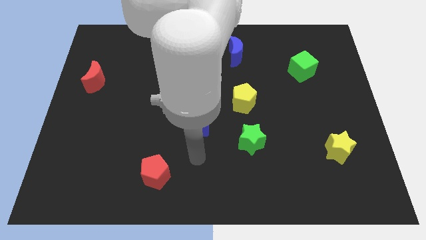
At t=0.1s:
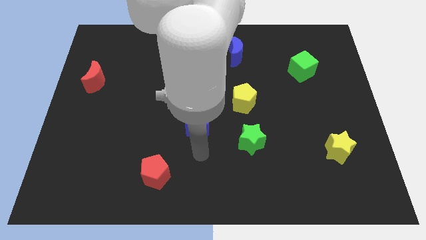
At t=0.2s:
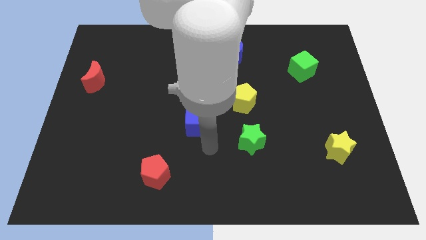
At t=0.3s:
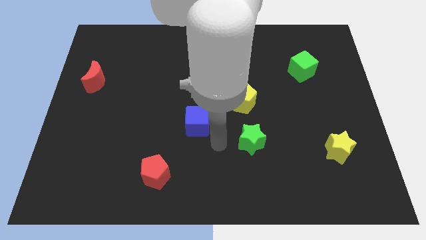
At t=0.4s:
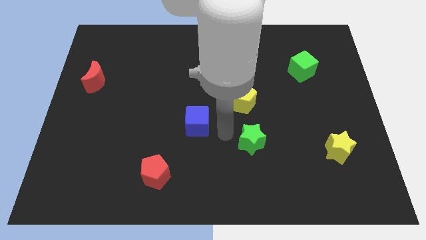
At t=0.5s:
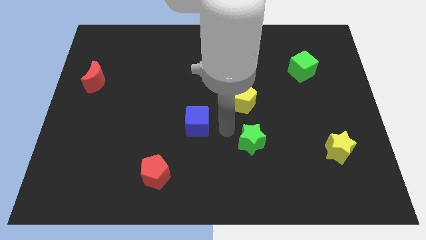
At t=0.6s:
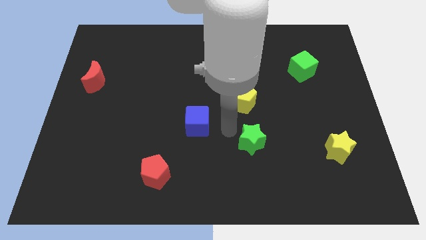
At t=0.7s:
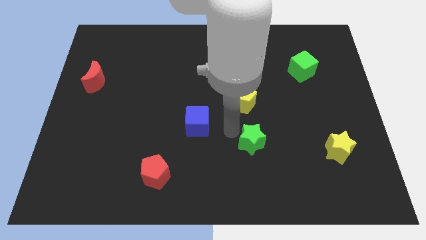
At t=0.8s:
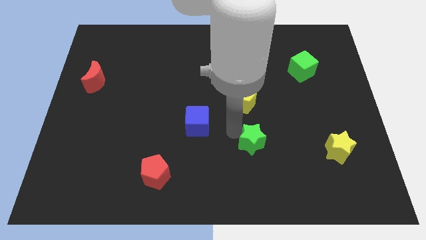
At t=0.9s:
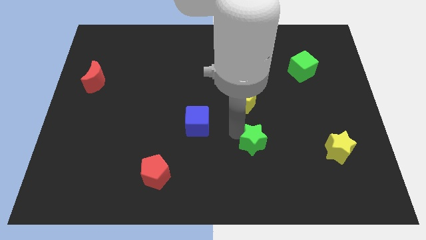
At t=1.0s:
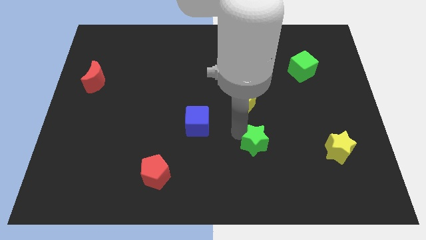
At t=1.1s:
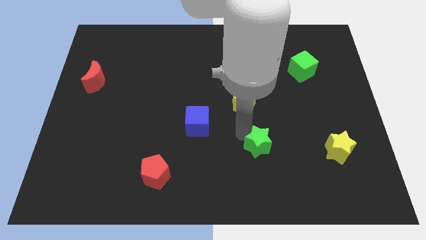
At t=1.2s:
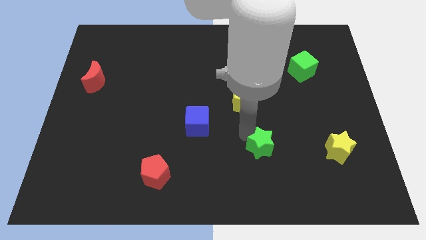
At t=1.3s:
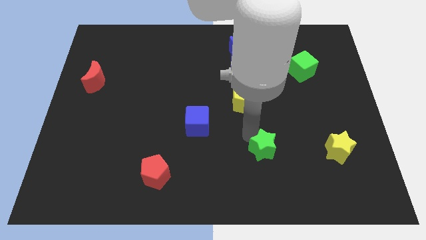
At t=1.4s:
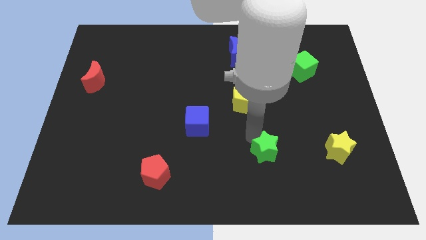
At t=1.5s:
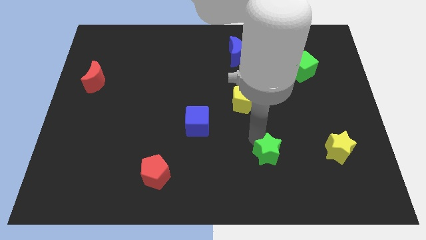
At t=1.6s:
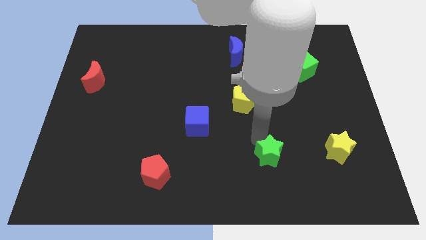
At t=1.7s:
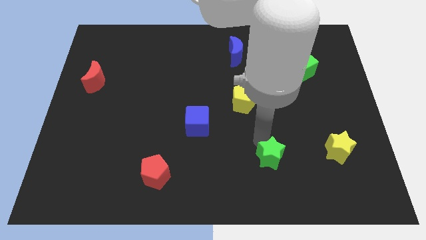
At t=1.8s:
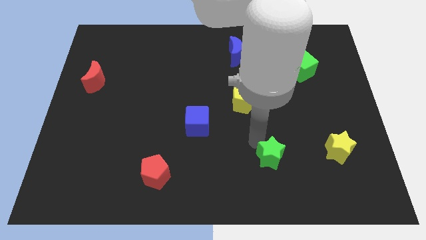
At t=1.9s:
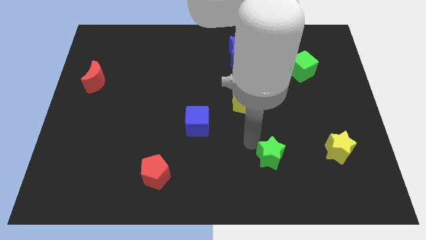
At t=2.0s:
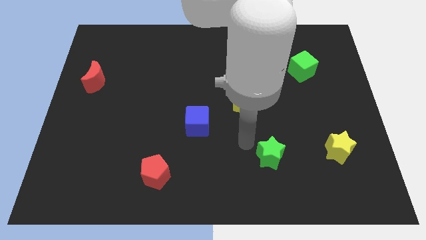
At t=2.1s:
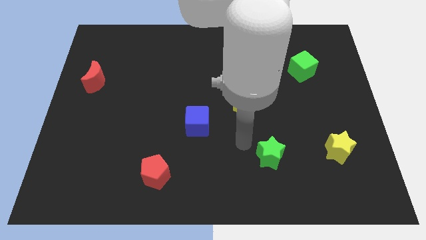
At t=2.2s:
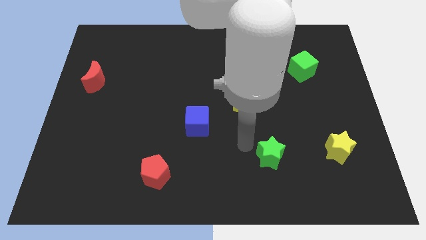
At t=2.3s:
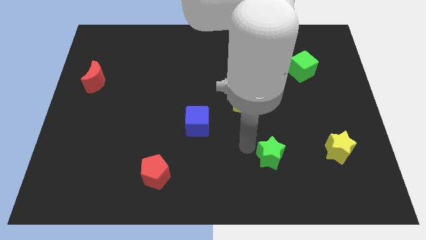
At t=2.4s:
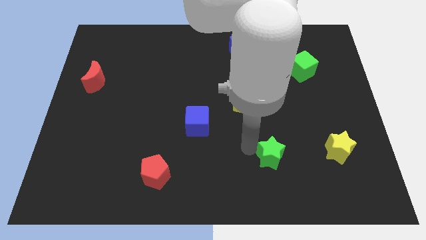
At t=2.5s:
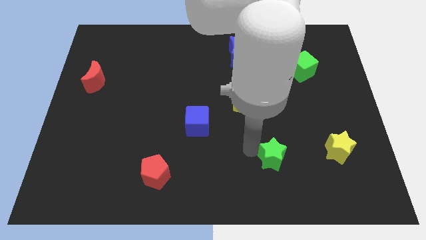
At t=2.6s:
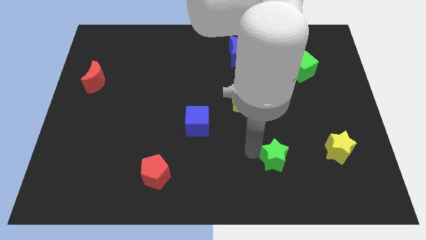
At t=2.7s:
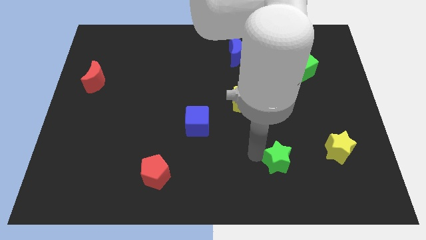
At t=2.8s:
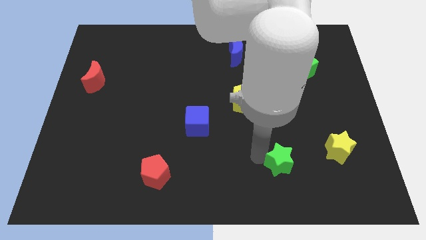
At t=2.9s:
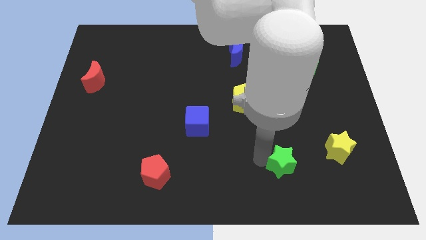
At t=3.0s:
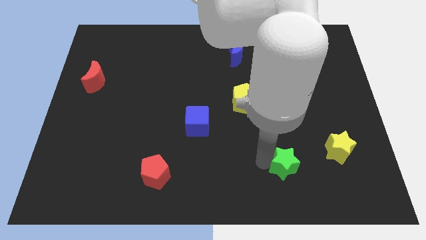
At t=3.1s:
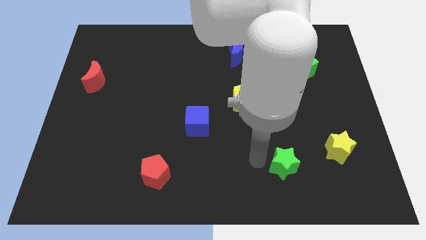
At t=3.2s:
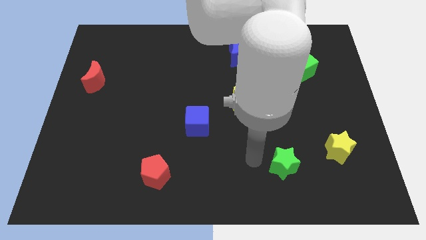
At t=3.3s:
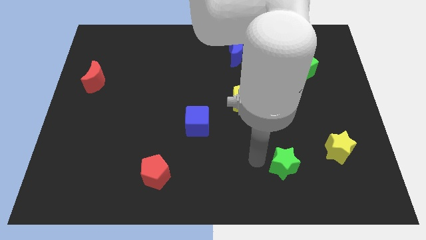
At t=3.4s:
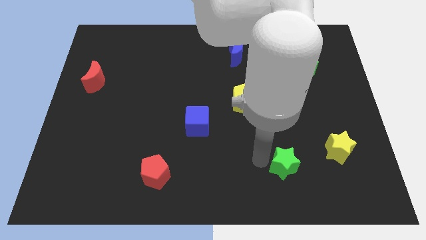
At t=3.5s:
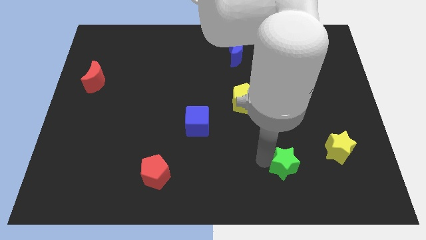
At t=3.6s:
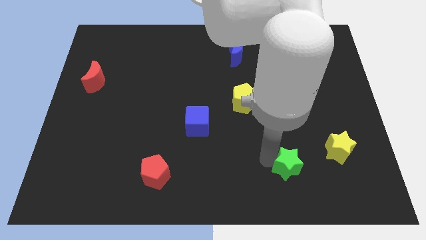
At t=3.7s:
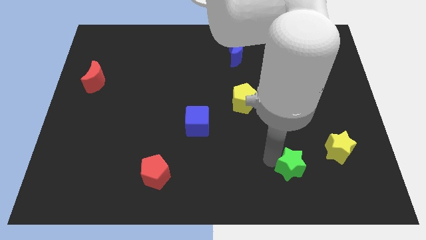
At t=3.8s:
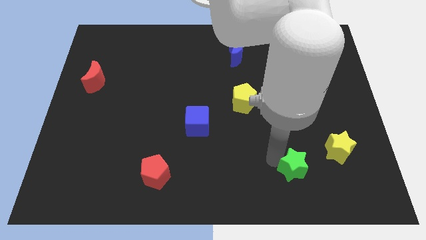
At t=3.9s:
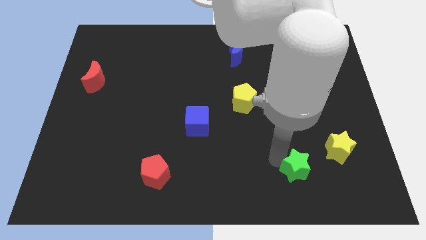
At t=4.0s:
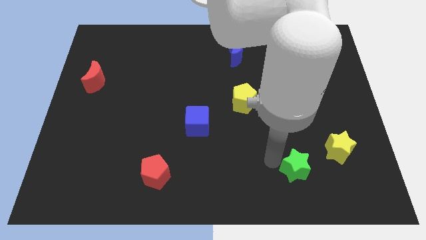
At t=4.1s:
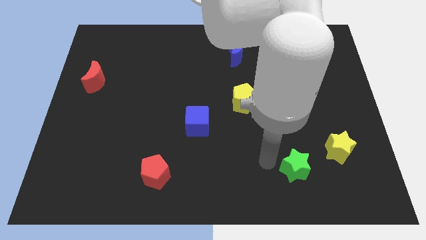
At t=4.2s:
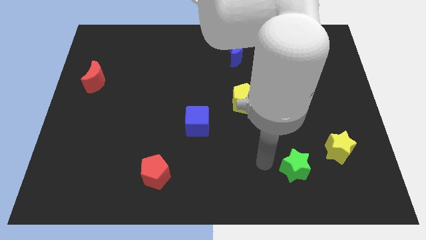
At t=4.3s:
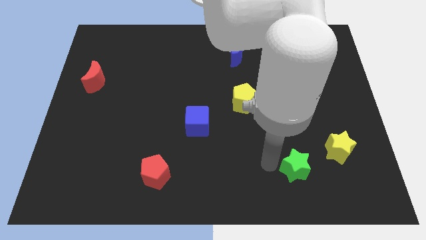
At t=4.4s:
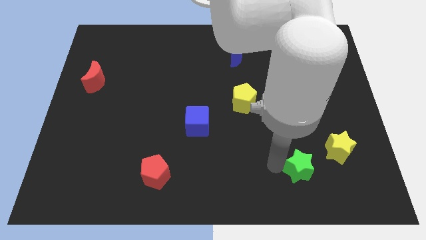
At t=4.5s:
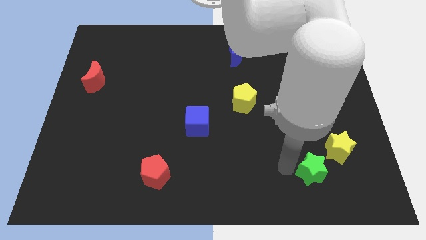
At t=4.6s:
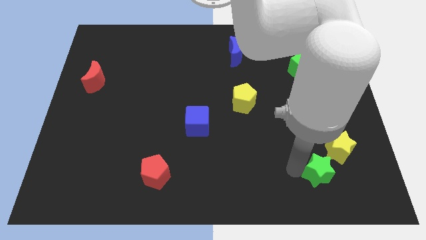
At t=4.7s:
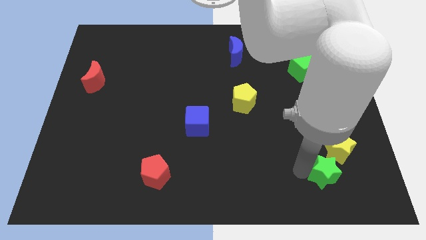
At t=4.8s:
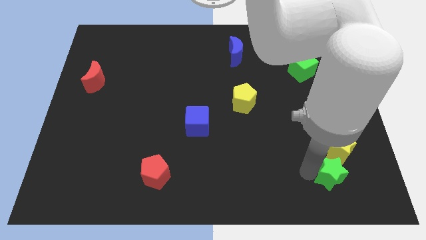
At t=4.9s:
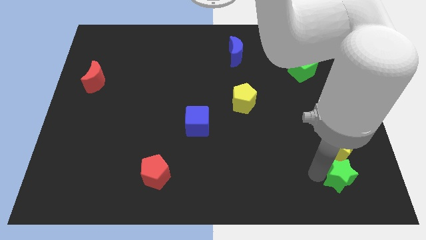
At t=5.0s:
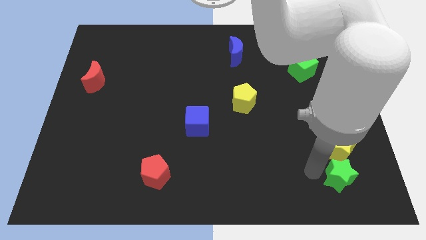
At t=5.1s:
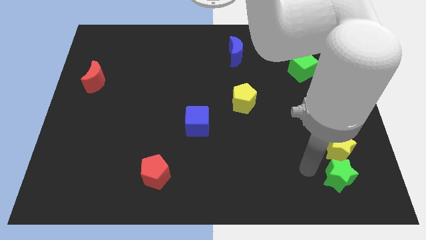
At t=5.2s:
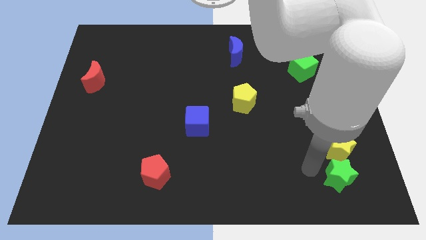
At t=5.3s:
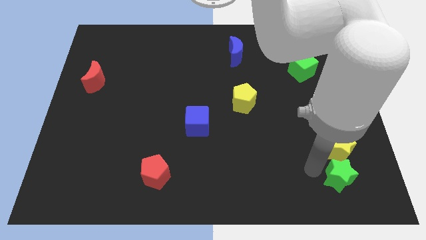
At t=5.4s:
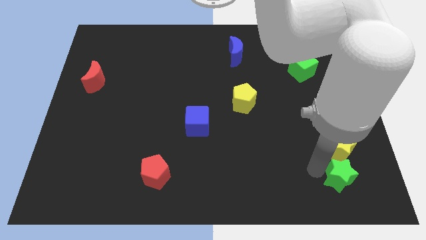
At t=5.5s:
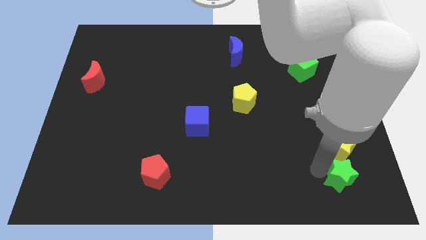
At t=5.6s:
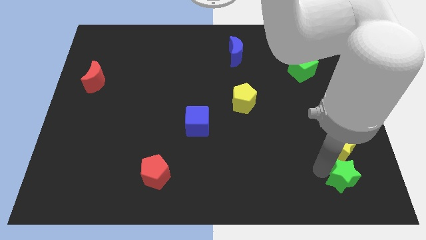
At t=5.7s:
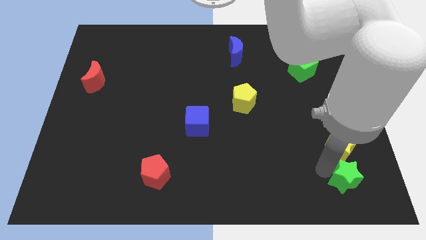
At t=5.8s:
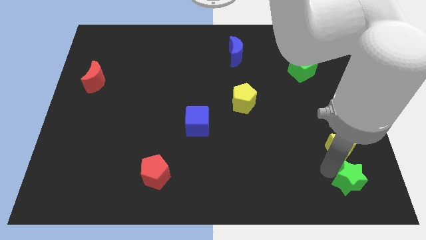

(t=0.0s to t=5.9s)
push the green star to the bottom right corner

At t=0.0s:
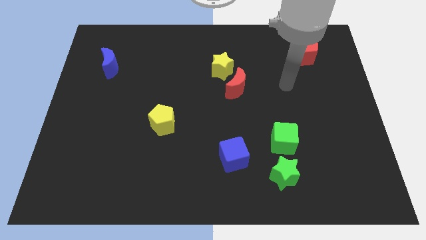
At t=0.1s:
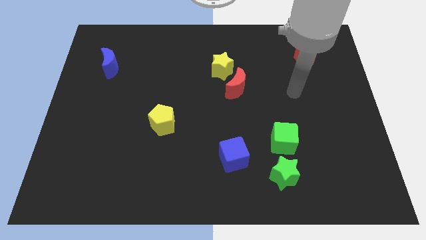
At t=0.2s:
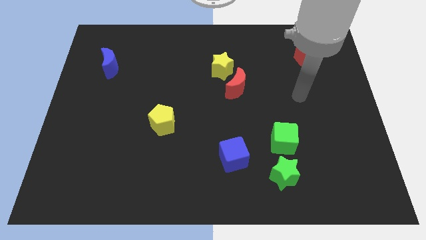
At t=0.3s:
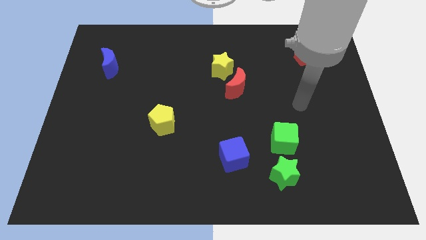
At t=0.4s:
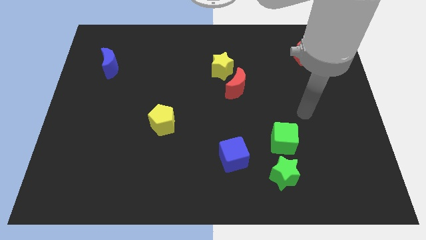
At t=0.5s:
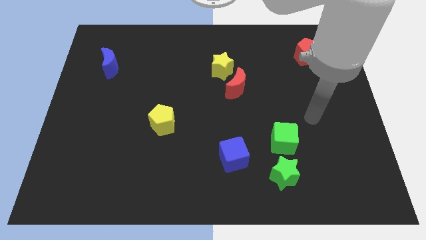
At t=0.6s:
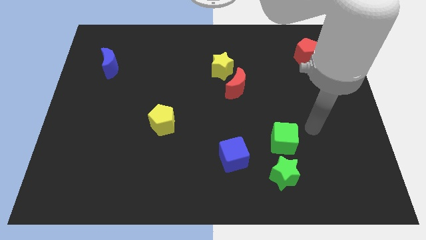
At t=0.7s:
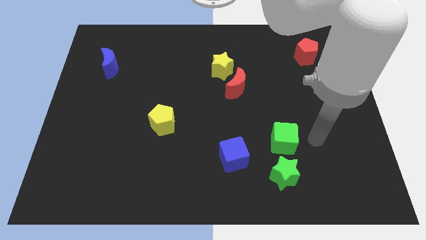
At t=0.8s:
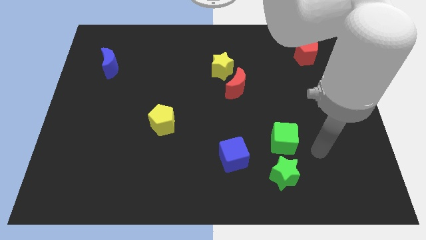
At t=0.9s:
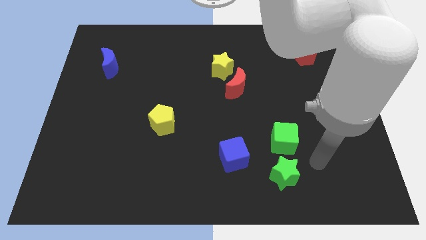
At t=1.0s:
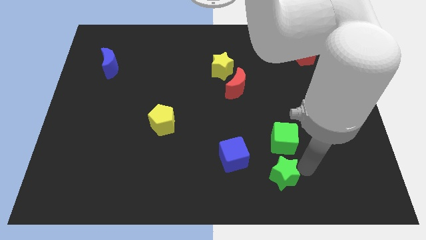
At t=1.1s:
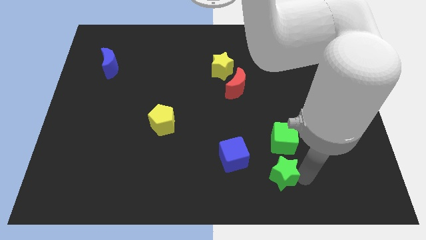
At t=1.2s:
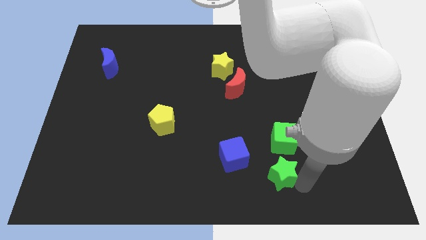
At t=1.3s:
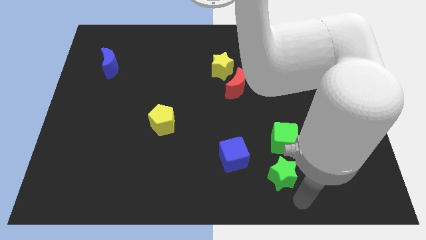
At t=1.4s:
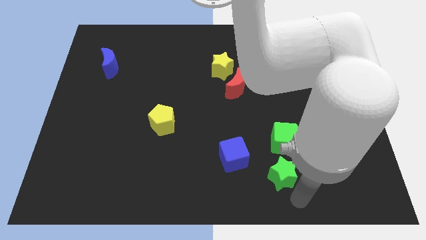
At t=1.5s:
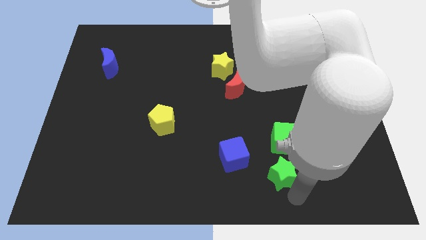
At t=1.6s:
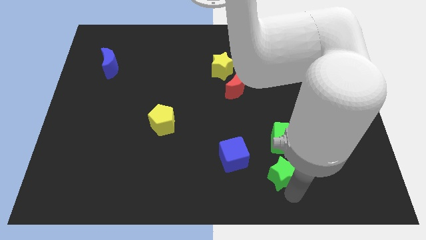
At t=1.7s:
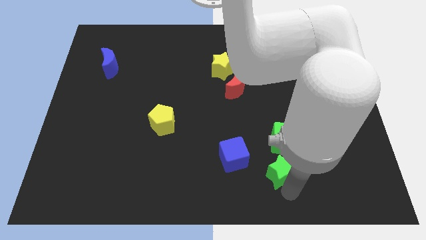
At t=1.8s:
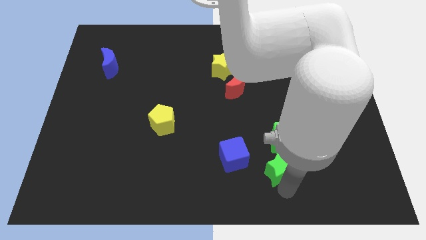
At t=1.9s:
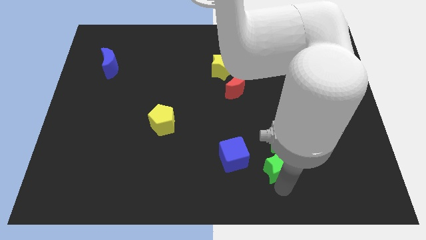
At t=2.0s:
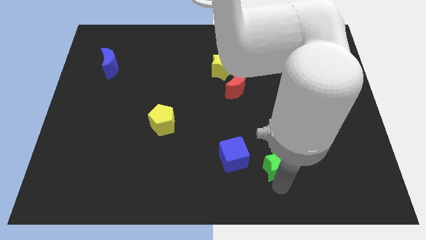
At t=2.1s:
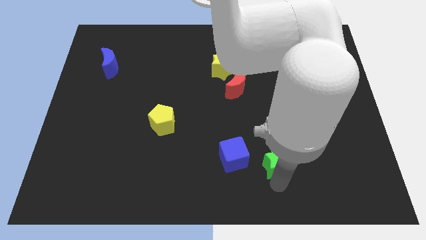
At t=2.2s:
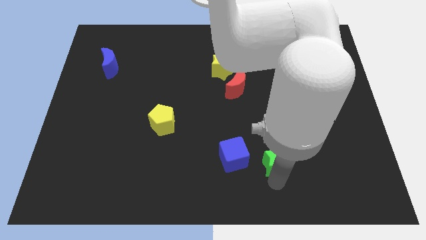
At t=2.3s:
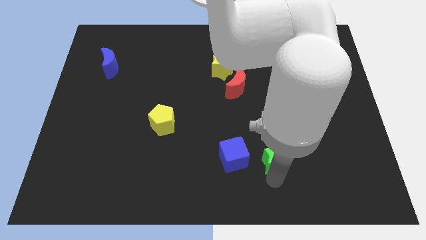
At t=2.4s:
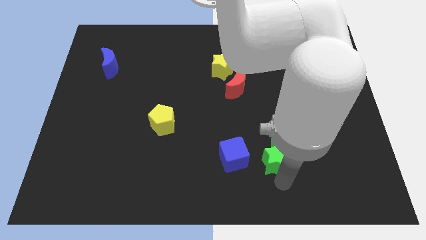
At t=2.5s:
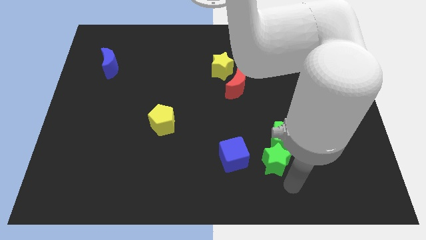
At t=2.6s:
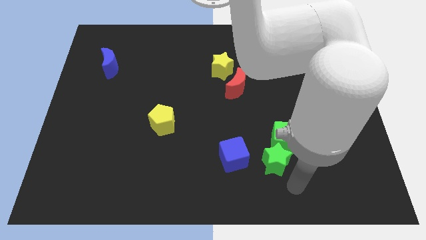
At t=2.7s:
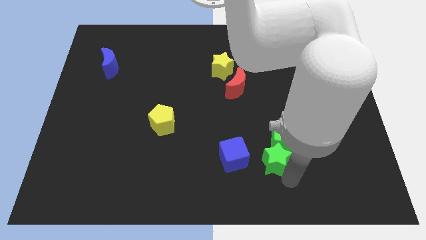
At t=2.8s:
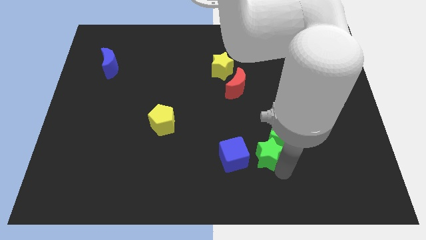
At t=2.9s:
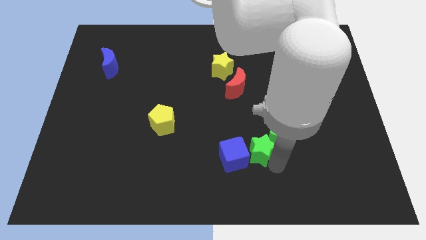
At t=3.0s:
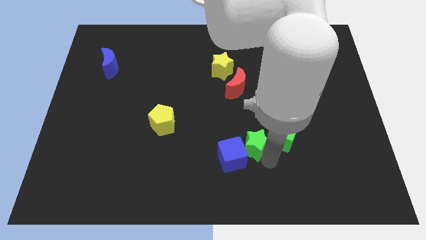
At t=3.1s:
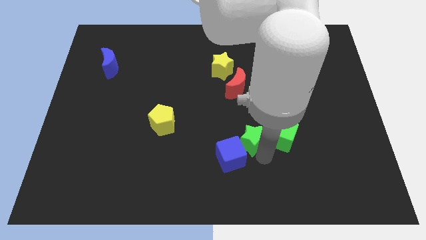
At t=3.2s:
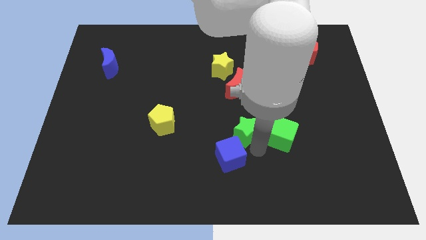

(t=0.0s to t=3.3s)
put the green star to the middle of the board
